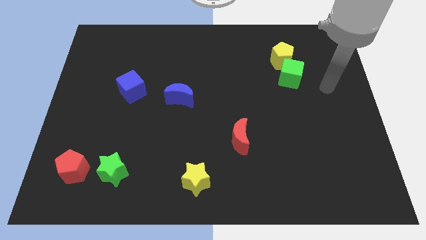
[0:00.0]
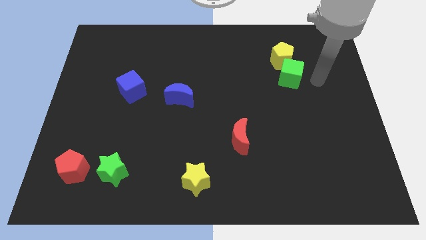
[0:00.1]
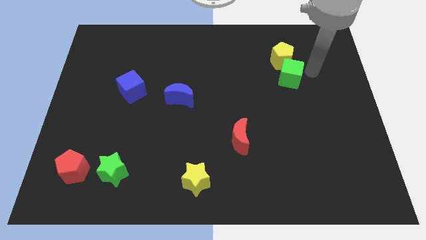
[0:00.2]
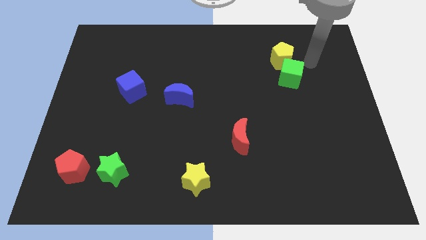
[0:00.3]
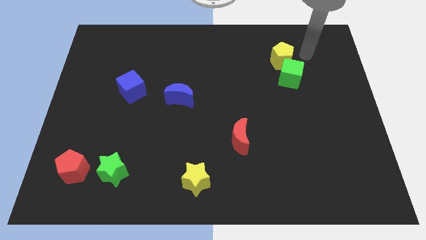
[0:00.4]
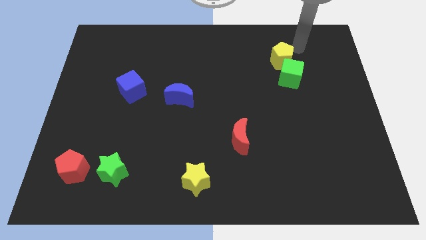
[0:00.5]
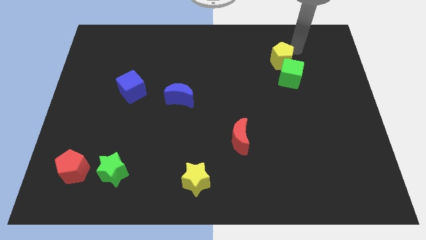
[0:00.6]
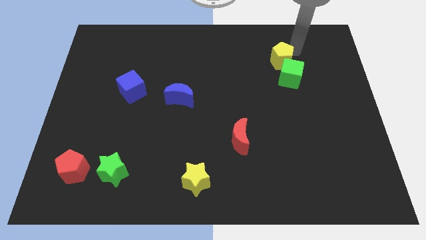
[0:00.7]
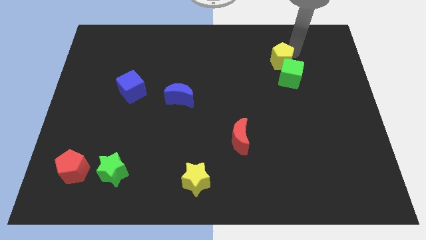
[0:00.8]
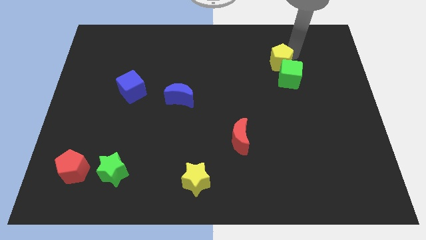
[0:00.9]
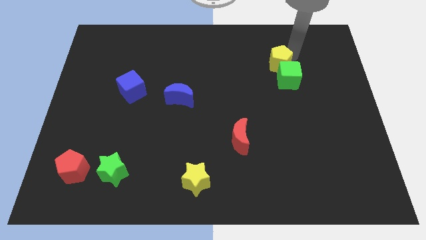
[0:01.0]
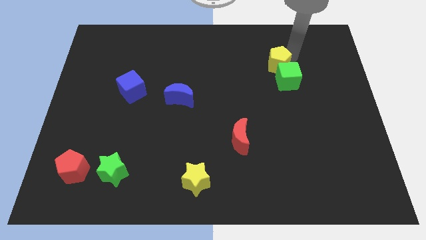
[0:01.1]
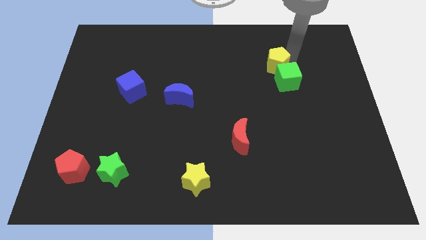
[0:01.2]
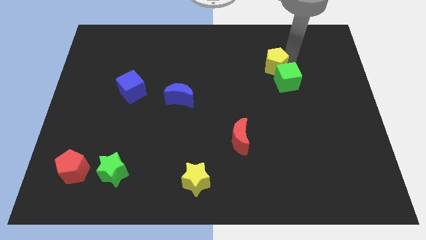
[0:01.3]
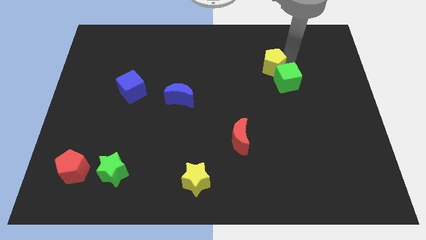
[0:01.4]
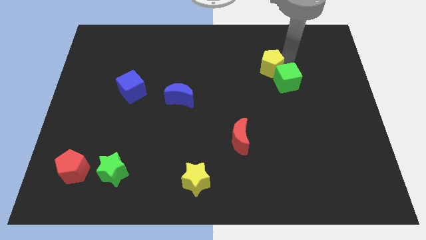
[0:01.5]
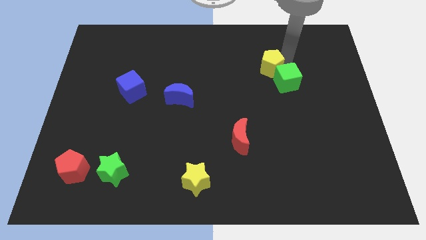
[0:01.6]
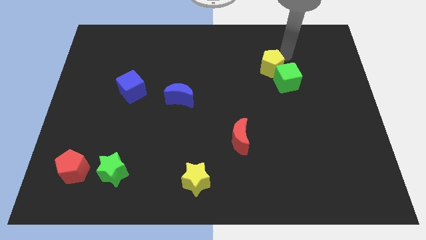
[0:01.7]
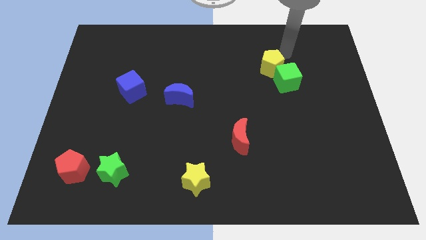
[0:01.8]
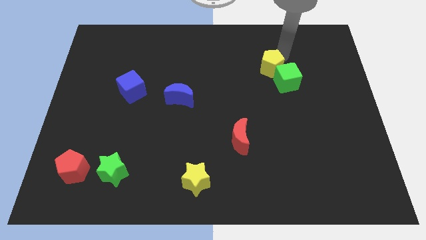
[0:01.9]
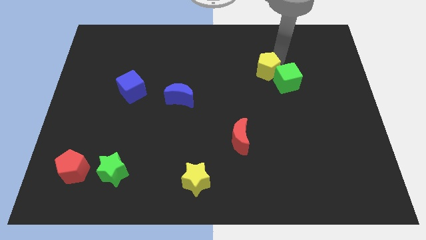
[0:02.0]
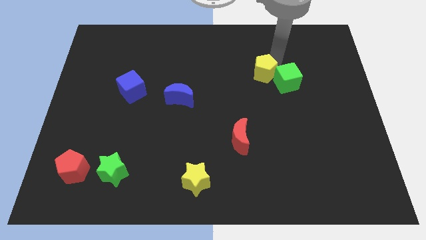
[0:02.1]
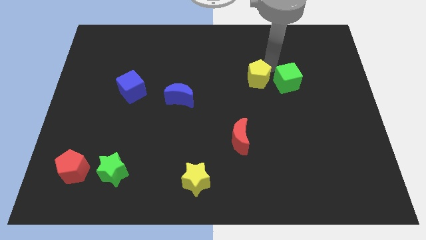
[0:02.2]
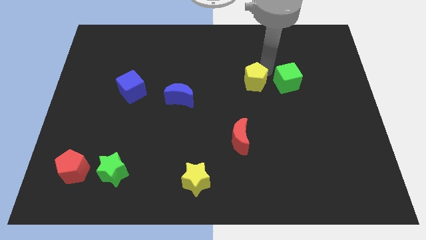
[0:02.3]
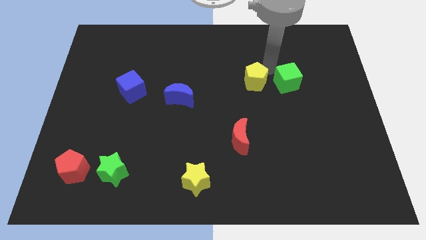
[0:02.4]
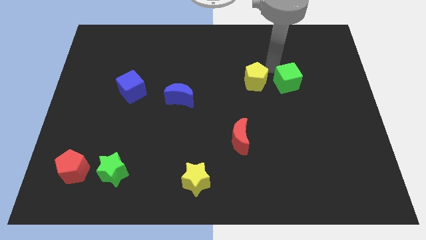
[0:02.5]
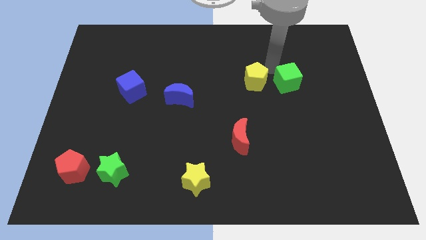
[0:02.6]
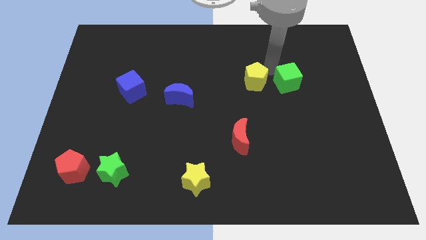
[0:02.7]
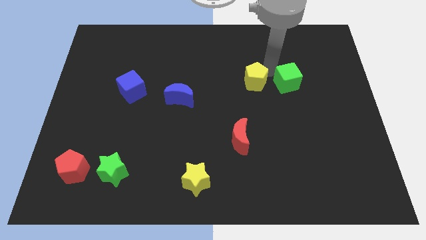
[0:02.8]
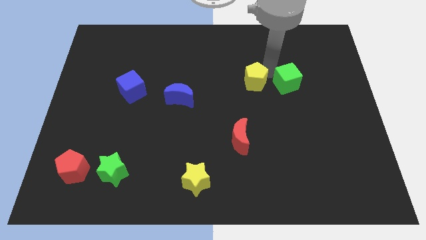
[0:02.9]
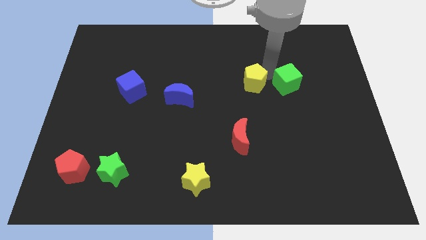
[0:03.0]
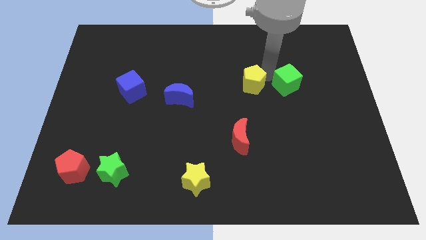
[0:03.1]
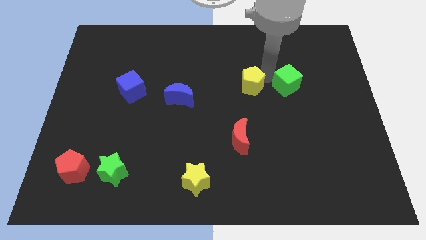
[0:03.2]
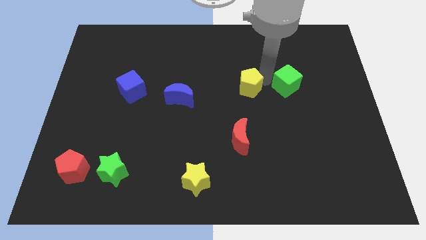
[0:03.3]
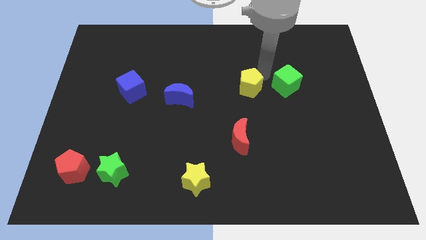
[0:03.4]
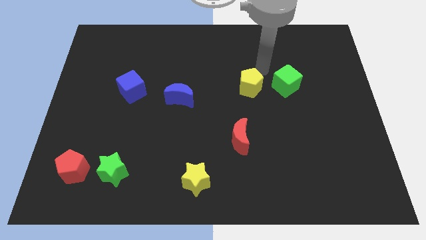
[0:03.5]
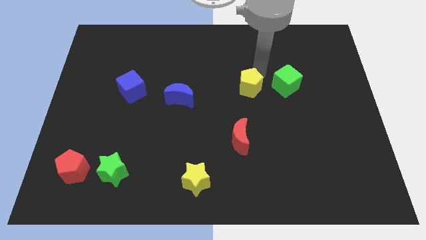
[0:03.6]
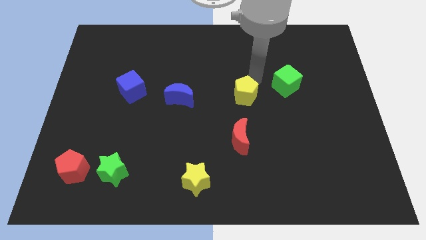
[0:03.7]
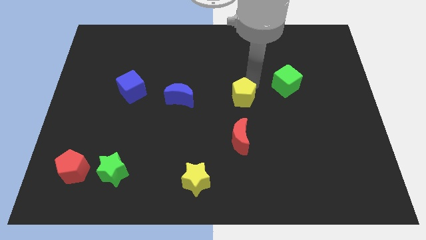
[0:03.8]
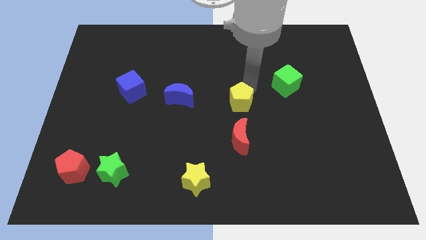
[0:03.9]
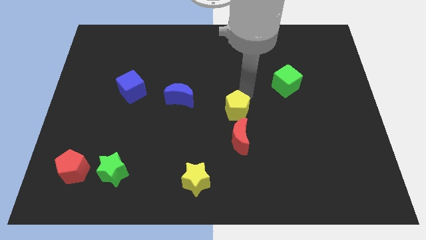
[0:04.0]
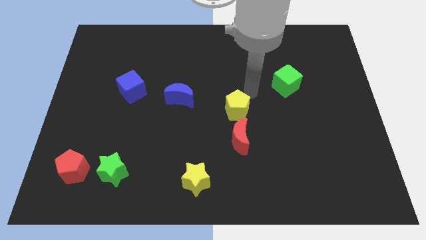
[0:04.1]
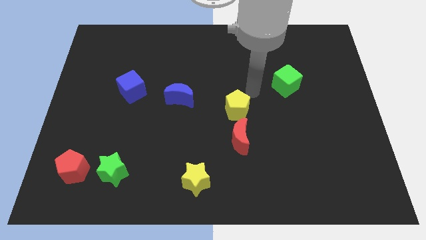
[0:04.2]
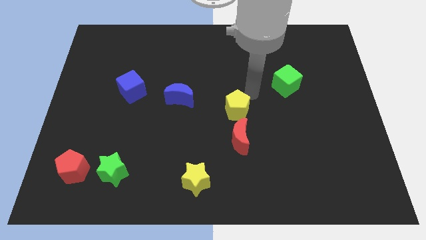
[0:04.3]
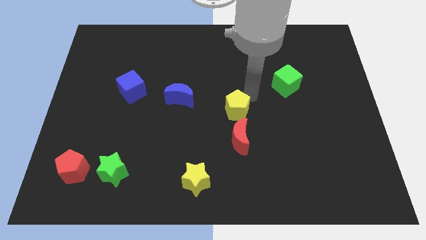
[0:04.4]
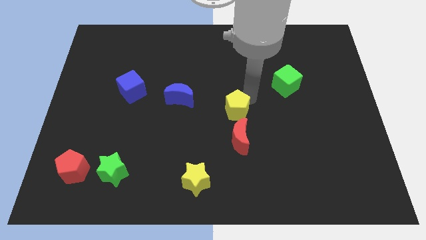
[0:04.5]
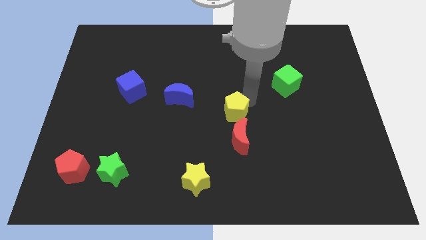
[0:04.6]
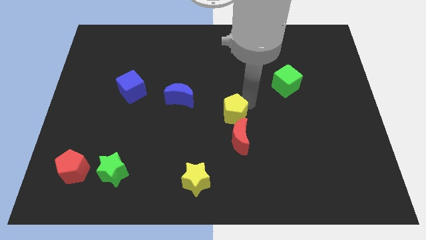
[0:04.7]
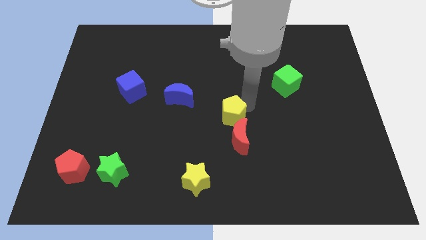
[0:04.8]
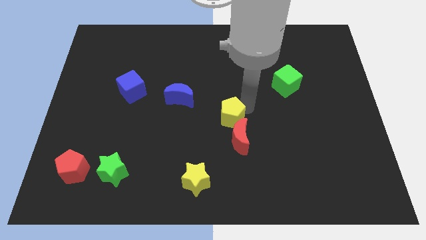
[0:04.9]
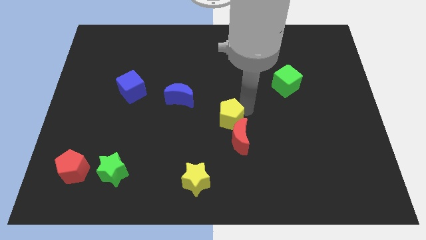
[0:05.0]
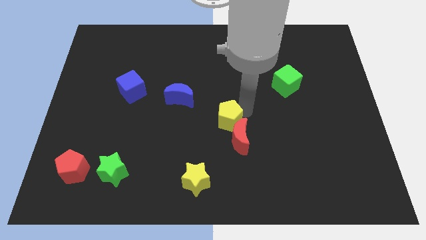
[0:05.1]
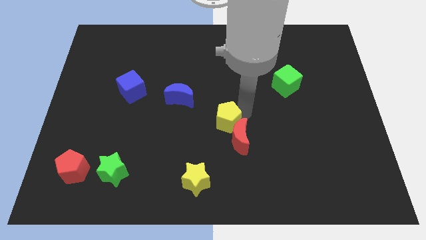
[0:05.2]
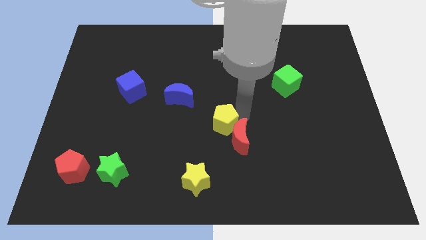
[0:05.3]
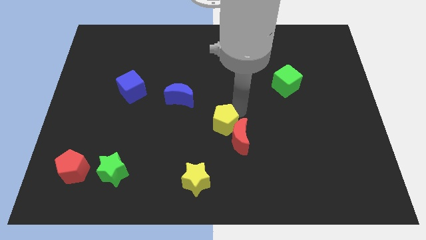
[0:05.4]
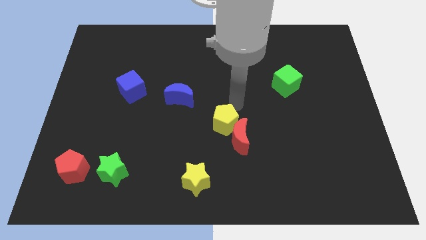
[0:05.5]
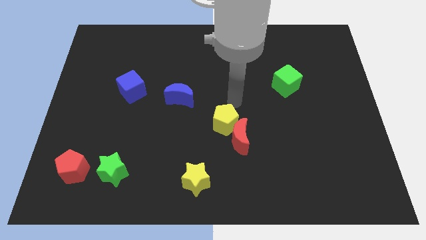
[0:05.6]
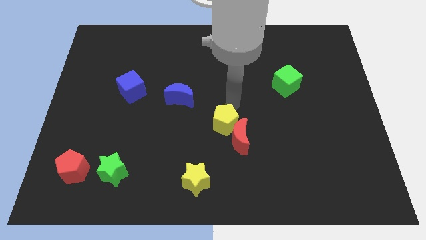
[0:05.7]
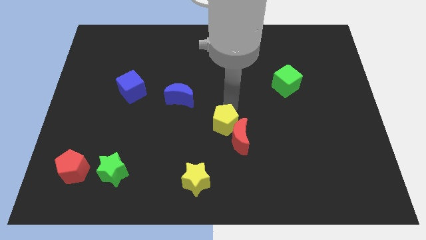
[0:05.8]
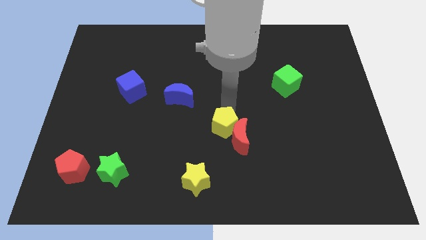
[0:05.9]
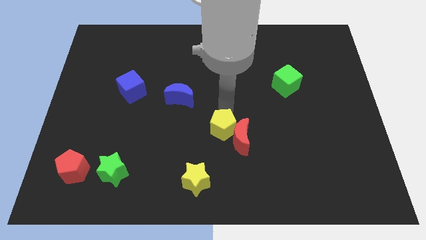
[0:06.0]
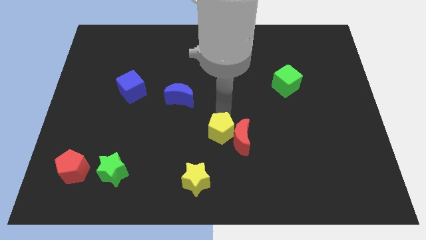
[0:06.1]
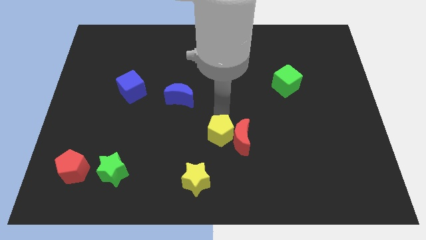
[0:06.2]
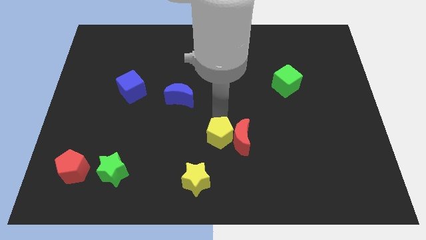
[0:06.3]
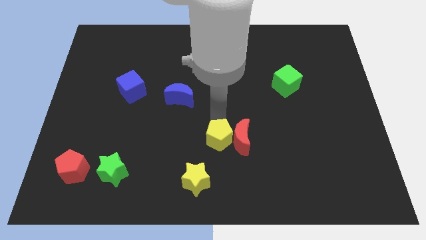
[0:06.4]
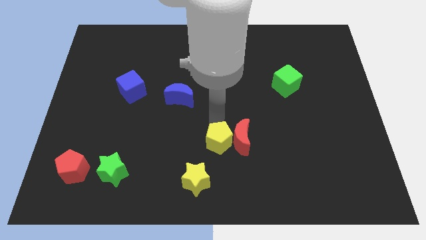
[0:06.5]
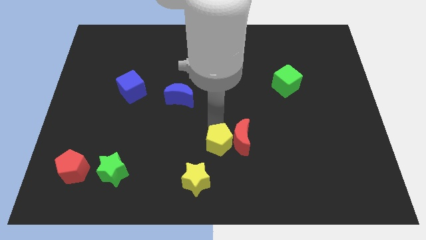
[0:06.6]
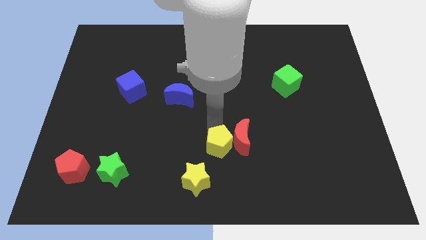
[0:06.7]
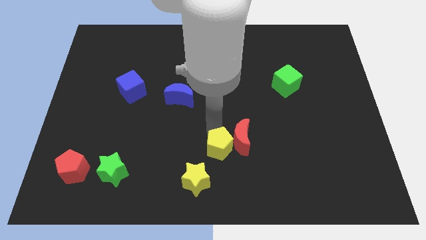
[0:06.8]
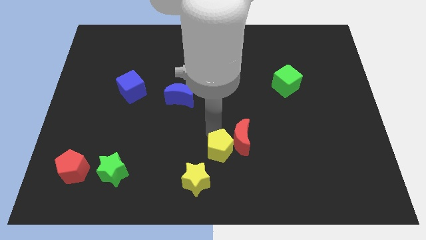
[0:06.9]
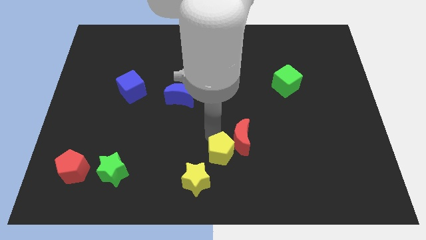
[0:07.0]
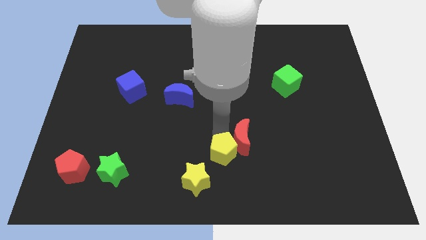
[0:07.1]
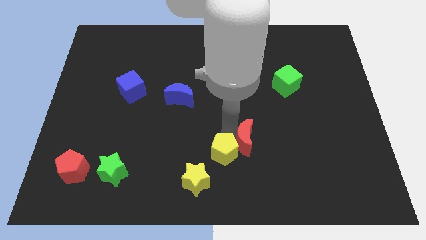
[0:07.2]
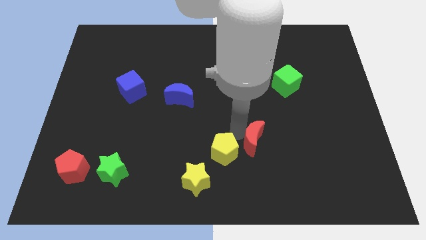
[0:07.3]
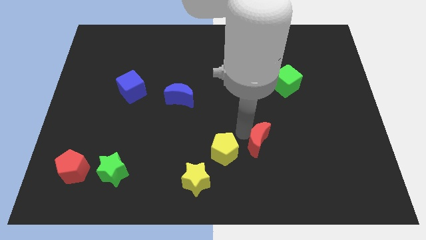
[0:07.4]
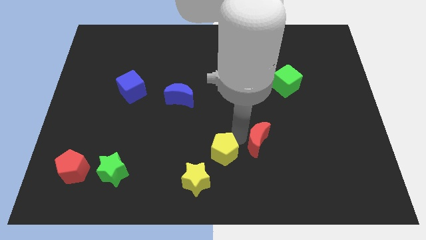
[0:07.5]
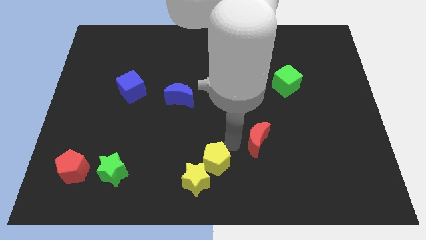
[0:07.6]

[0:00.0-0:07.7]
slide the yellow pentagon next to the yellow star
